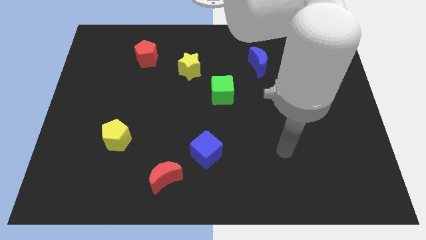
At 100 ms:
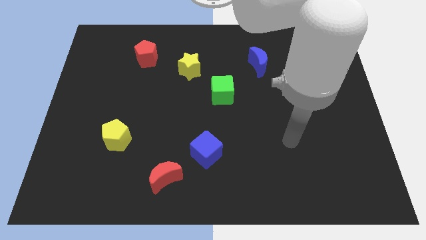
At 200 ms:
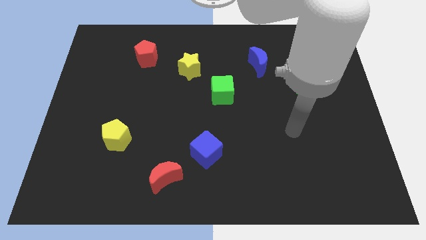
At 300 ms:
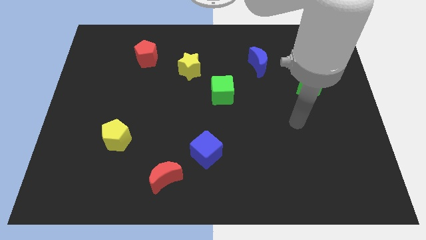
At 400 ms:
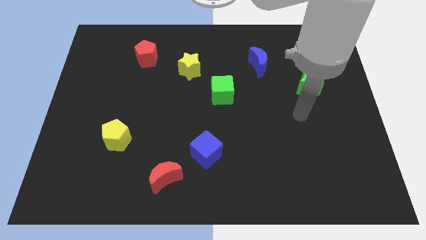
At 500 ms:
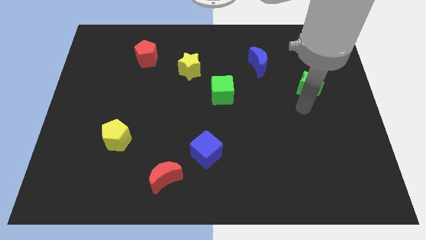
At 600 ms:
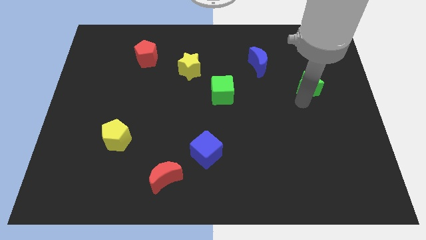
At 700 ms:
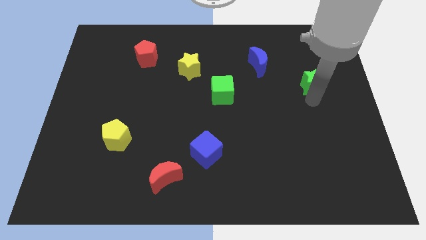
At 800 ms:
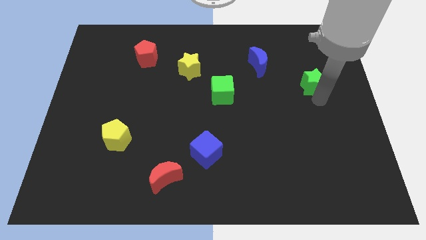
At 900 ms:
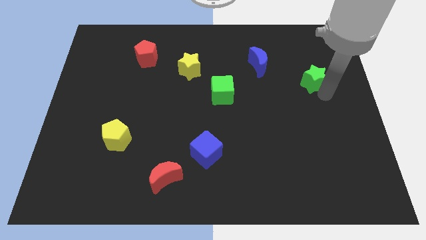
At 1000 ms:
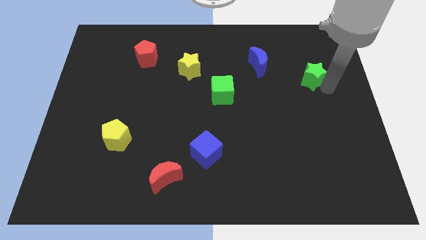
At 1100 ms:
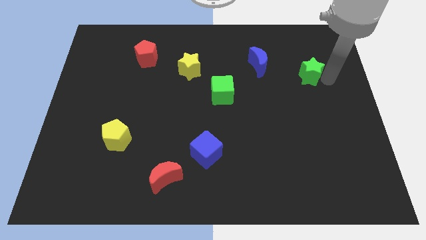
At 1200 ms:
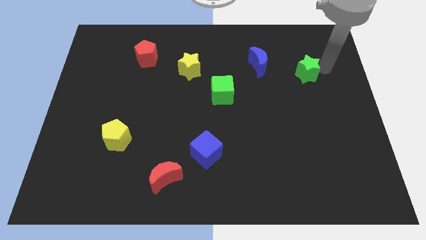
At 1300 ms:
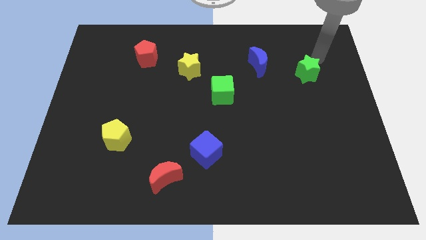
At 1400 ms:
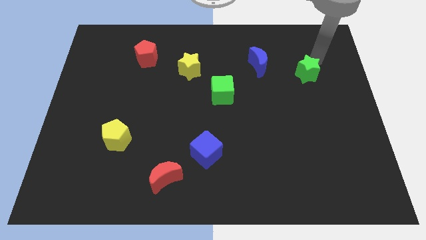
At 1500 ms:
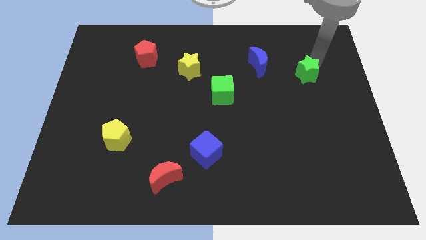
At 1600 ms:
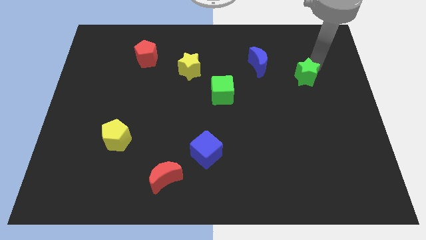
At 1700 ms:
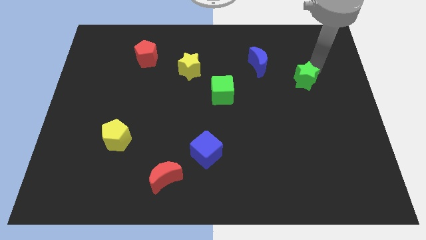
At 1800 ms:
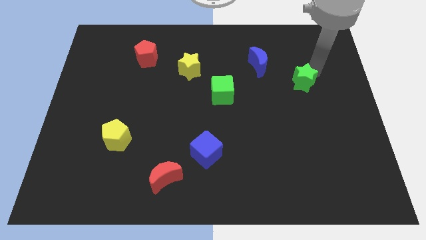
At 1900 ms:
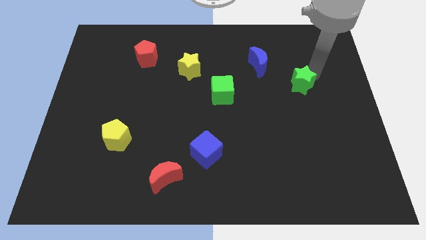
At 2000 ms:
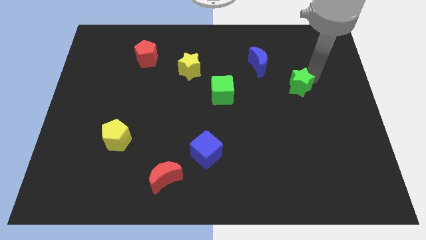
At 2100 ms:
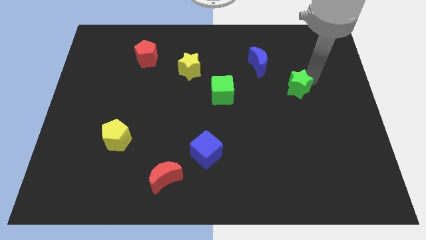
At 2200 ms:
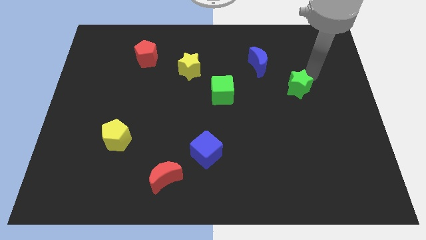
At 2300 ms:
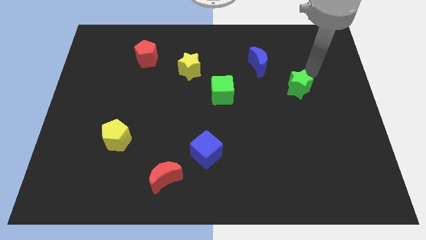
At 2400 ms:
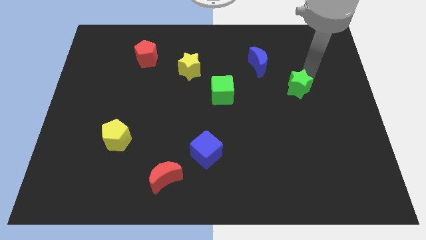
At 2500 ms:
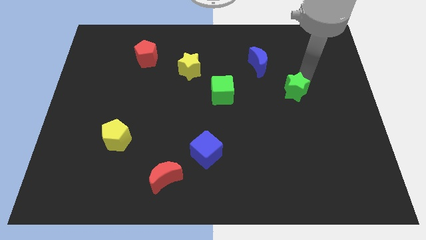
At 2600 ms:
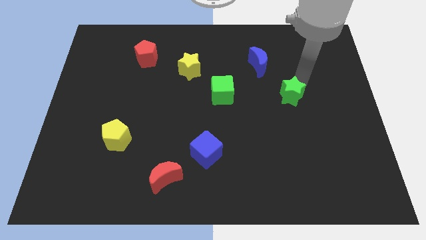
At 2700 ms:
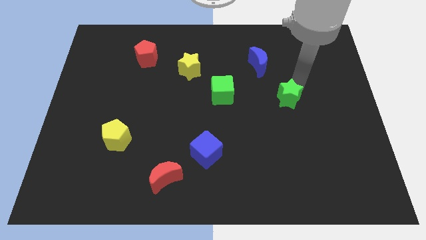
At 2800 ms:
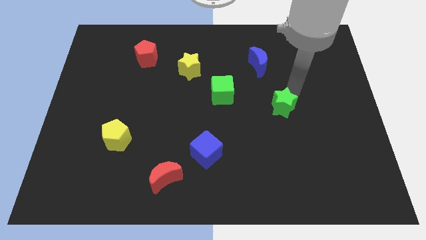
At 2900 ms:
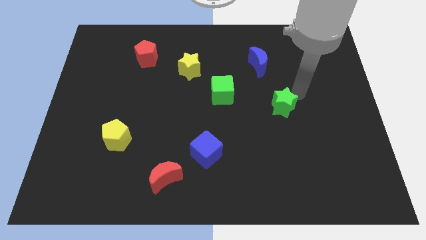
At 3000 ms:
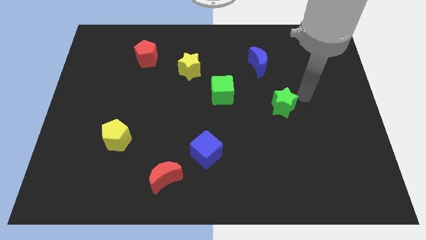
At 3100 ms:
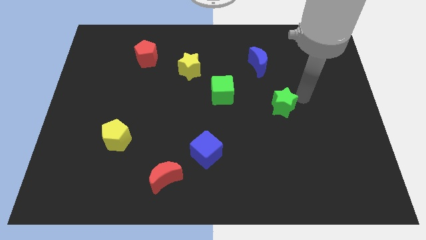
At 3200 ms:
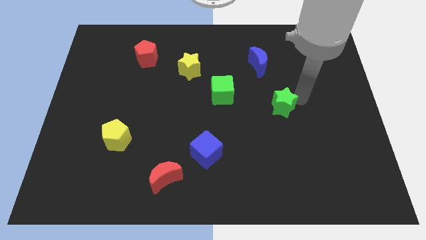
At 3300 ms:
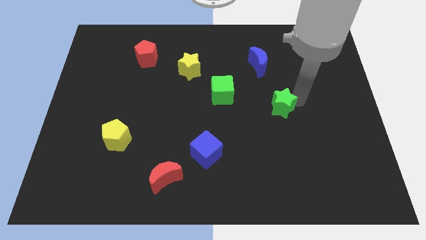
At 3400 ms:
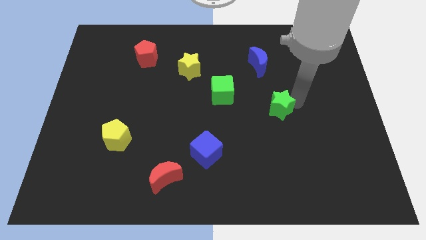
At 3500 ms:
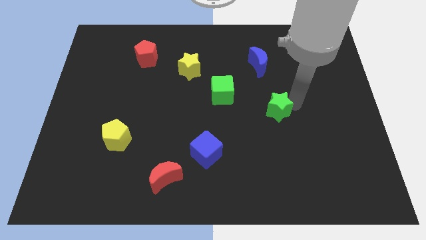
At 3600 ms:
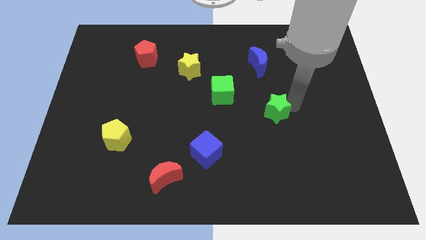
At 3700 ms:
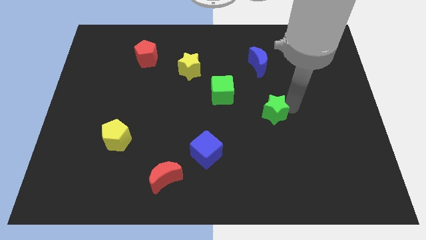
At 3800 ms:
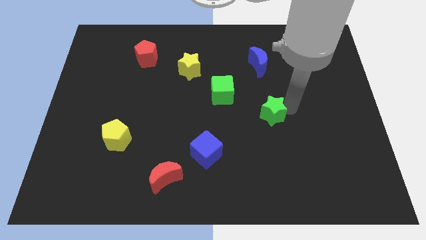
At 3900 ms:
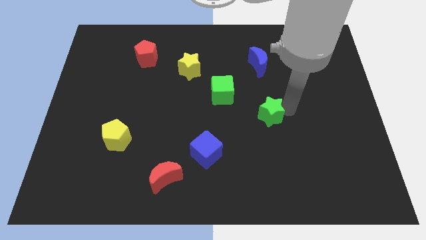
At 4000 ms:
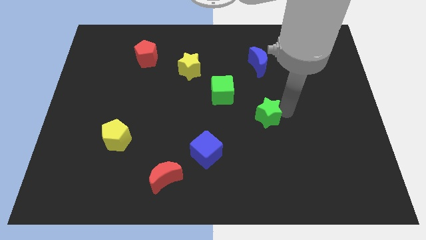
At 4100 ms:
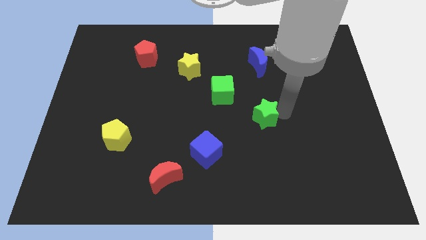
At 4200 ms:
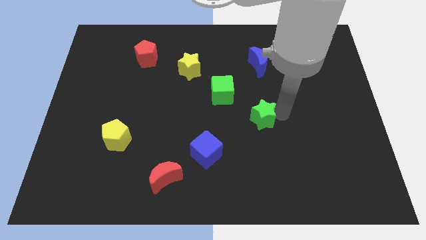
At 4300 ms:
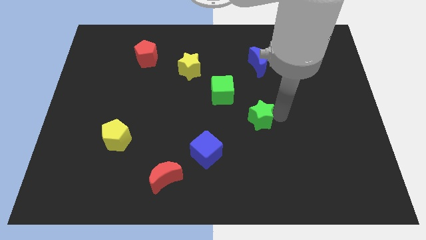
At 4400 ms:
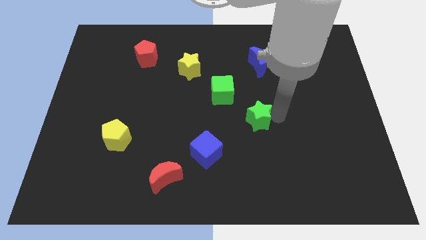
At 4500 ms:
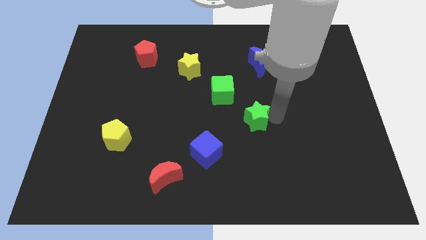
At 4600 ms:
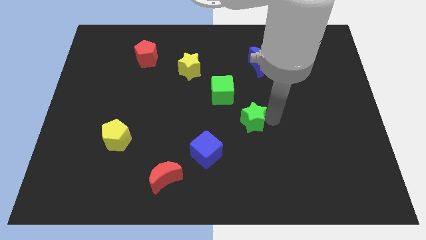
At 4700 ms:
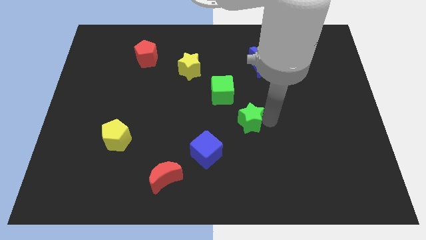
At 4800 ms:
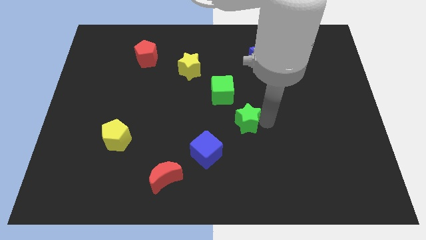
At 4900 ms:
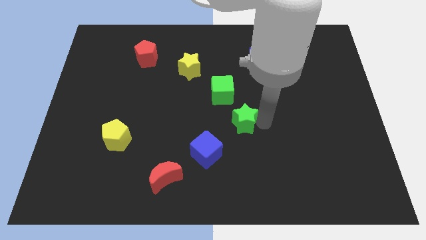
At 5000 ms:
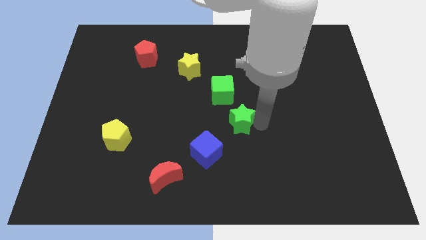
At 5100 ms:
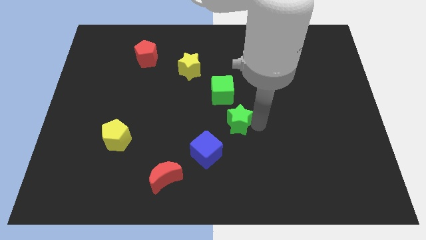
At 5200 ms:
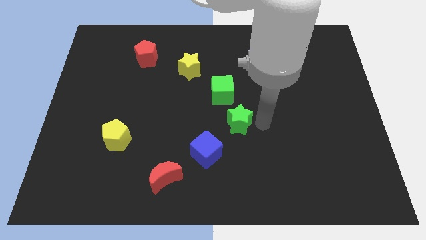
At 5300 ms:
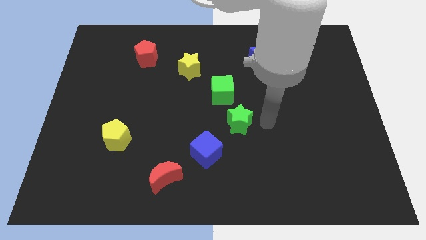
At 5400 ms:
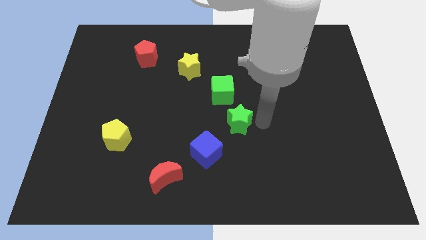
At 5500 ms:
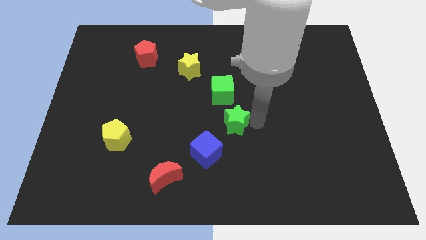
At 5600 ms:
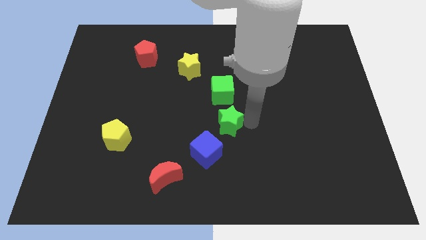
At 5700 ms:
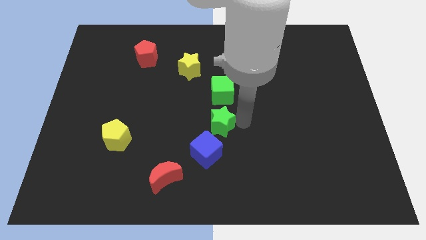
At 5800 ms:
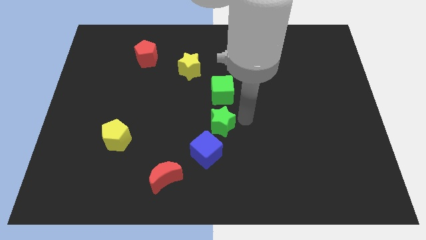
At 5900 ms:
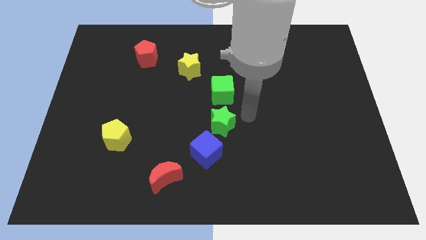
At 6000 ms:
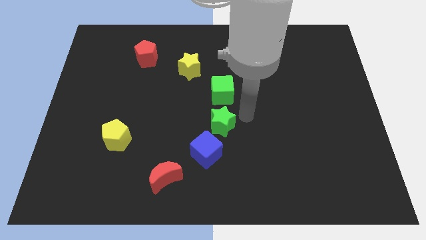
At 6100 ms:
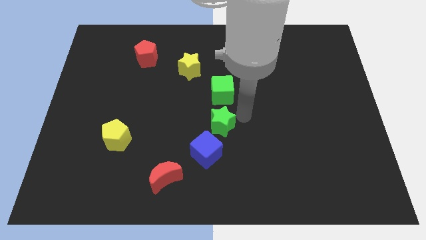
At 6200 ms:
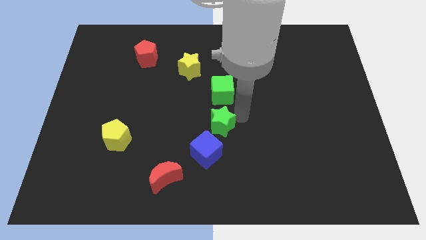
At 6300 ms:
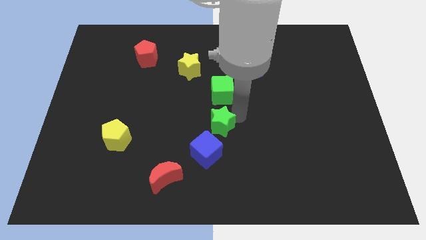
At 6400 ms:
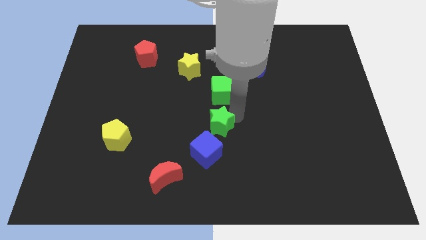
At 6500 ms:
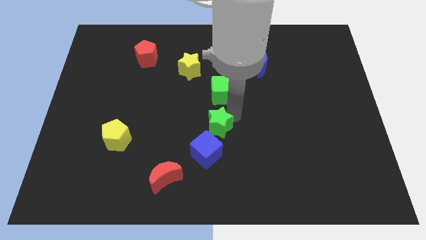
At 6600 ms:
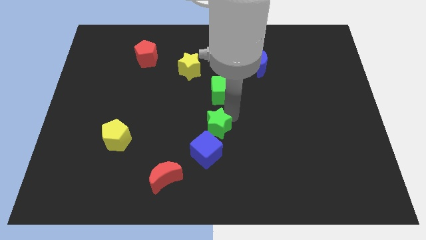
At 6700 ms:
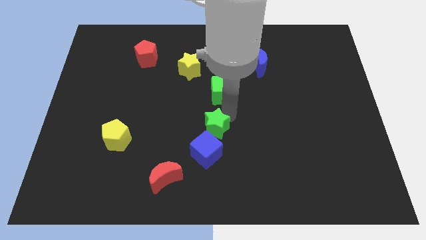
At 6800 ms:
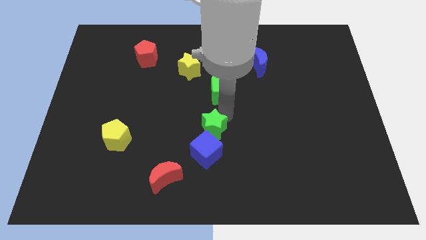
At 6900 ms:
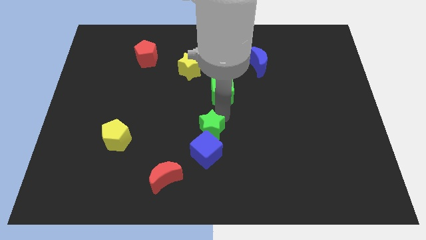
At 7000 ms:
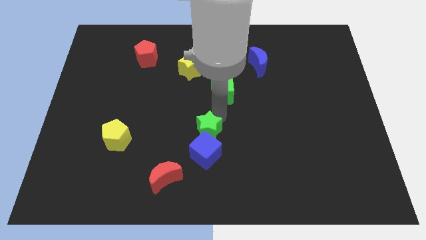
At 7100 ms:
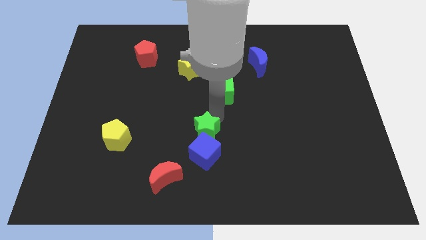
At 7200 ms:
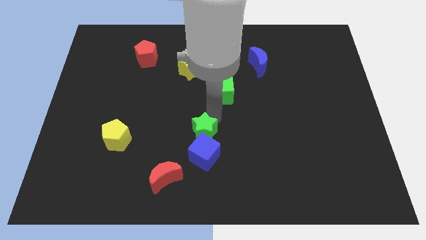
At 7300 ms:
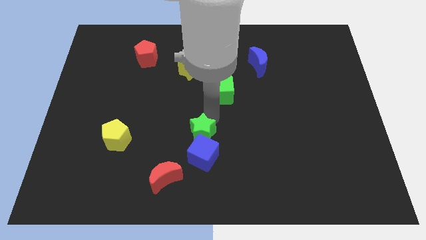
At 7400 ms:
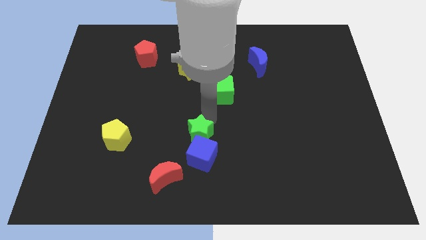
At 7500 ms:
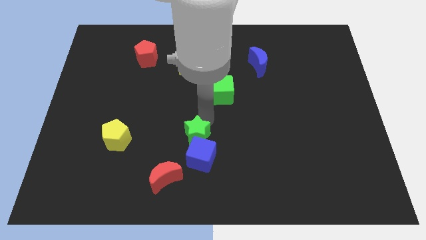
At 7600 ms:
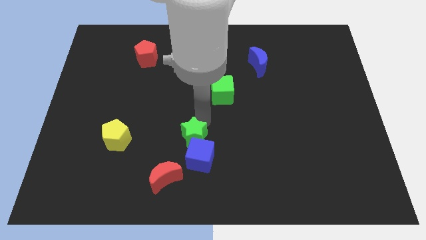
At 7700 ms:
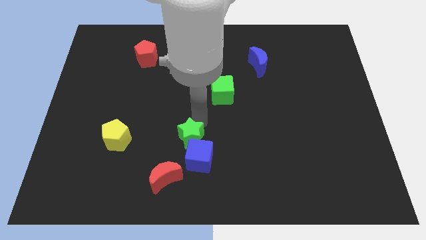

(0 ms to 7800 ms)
put the green star above the red moon
